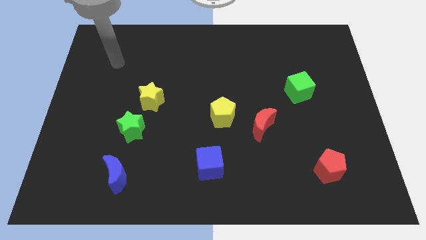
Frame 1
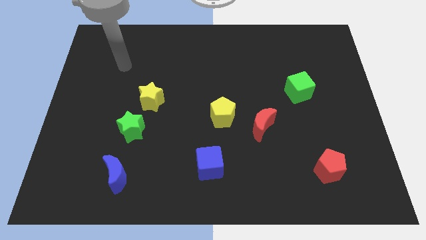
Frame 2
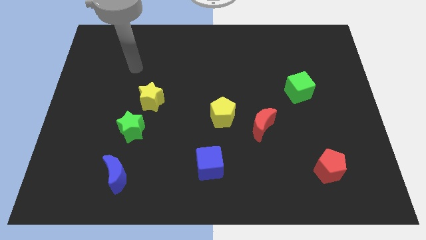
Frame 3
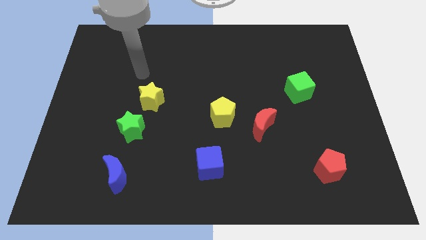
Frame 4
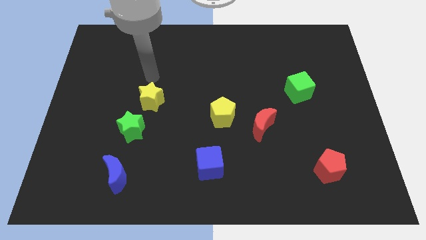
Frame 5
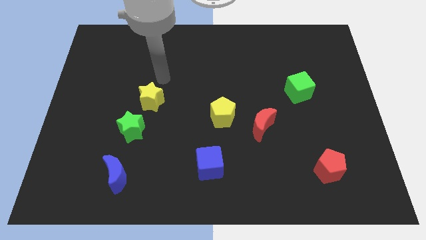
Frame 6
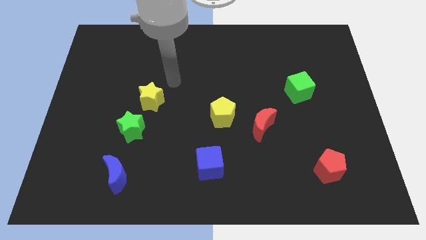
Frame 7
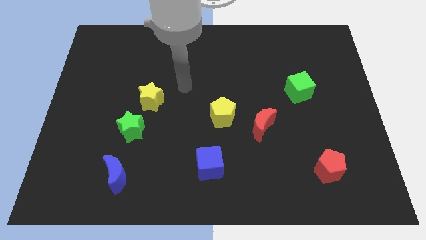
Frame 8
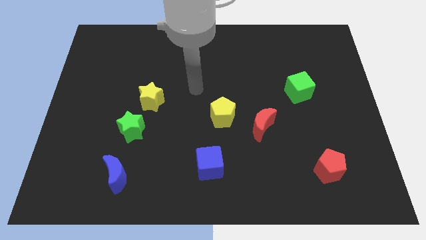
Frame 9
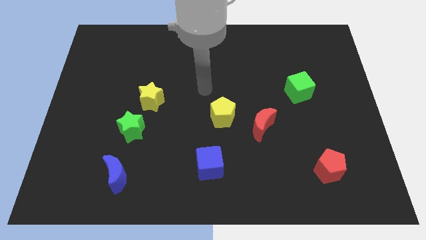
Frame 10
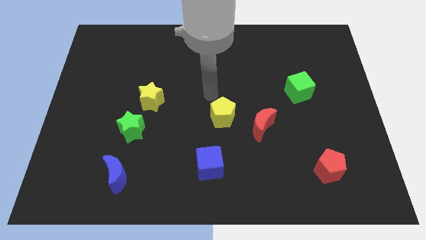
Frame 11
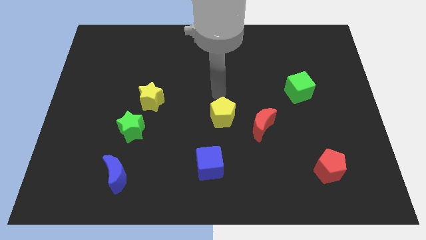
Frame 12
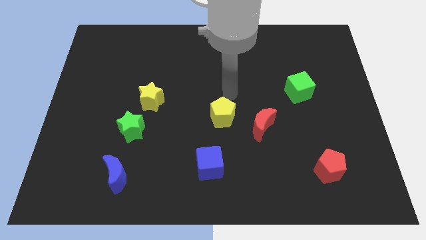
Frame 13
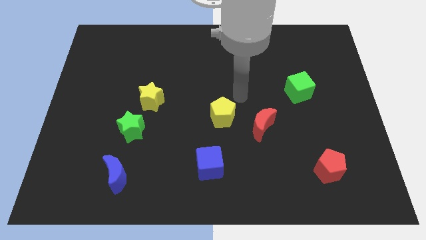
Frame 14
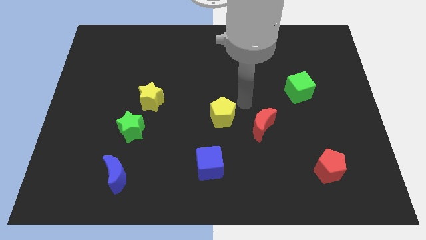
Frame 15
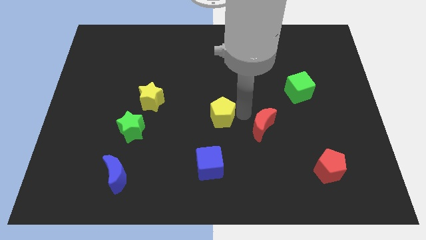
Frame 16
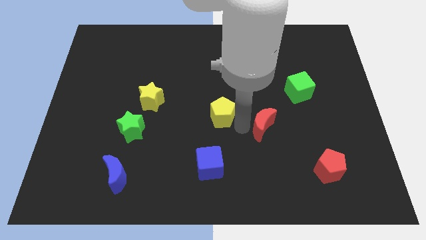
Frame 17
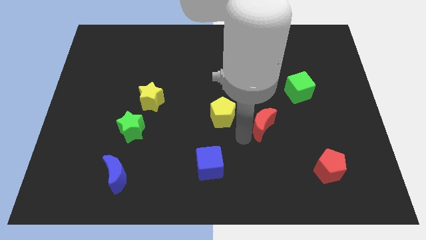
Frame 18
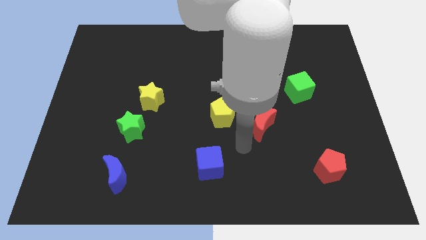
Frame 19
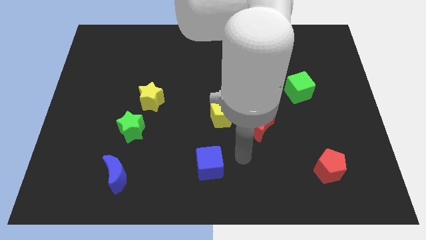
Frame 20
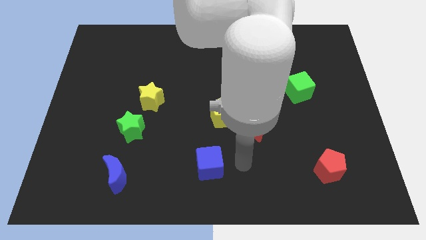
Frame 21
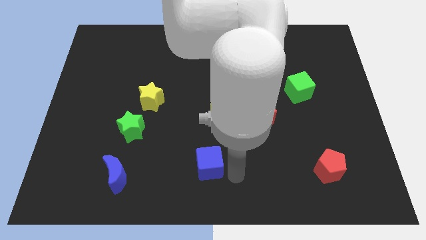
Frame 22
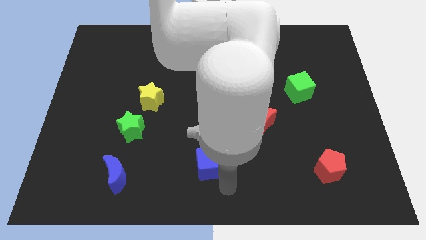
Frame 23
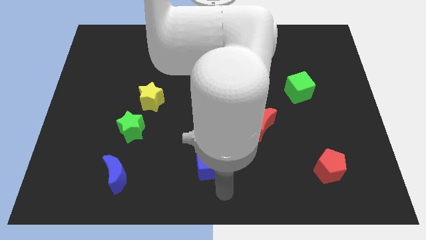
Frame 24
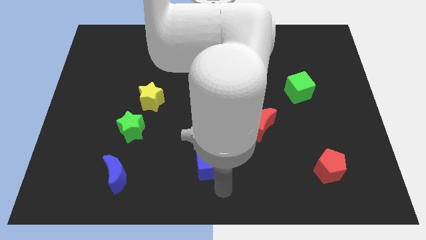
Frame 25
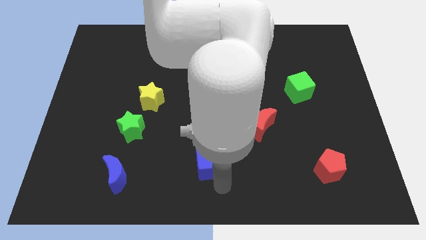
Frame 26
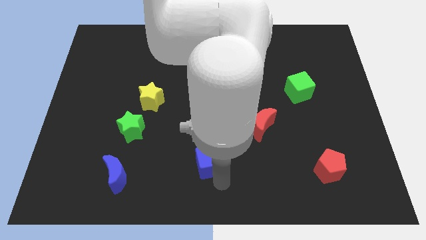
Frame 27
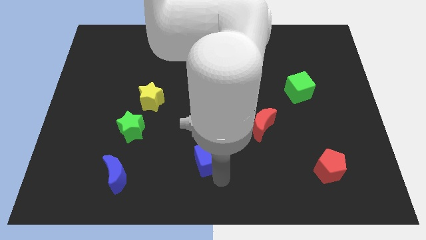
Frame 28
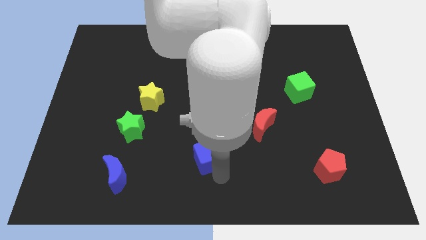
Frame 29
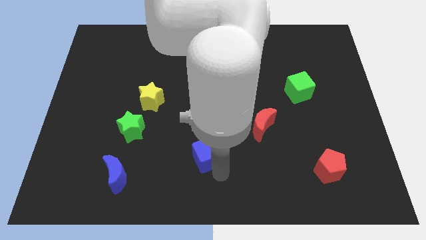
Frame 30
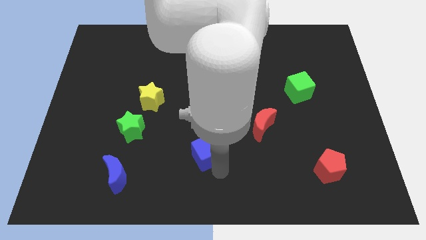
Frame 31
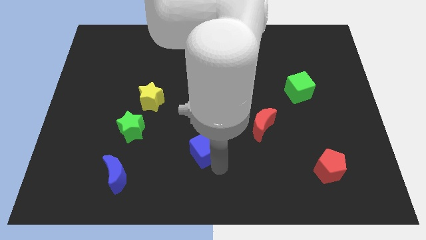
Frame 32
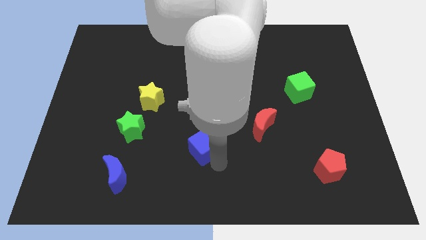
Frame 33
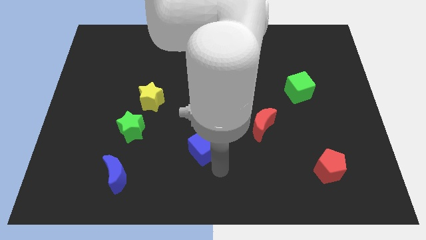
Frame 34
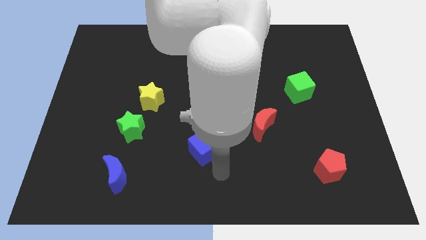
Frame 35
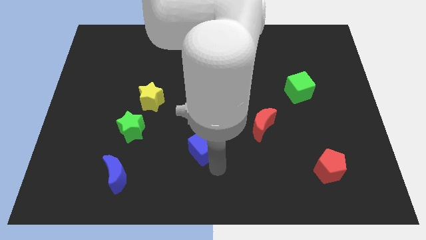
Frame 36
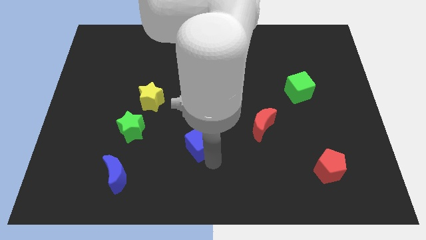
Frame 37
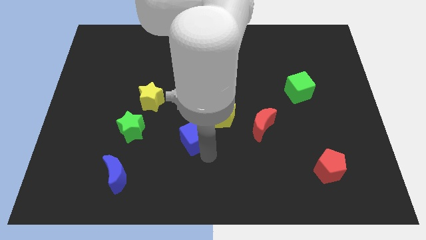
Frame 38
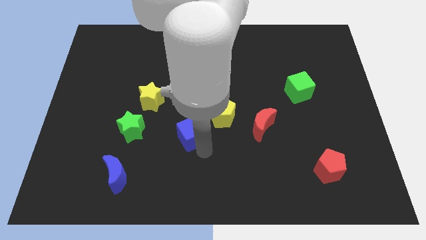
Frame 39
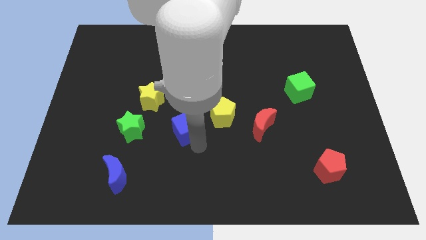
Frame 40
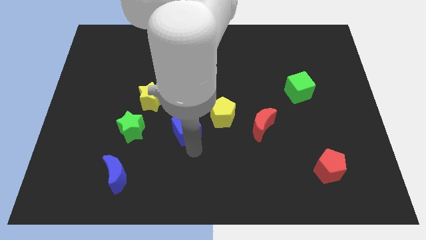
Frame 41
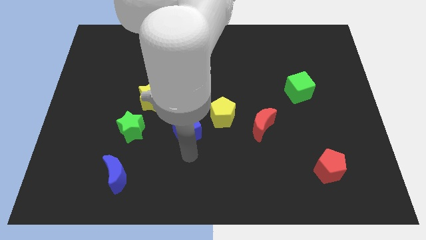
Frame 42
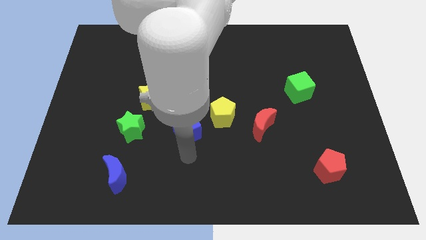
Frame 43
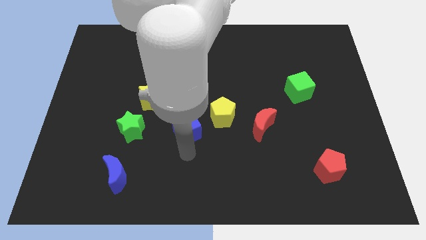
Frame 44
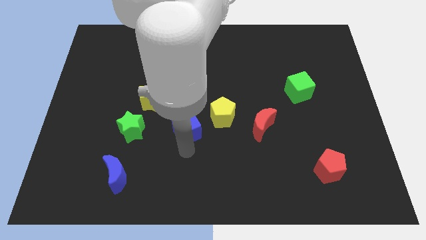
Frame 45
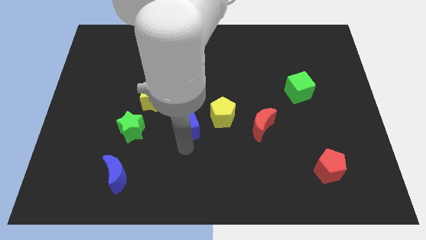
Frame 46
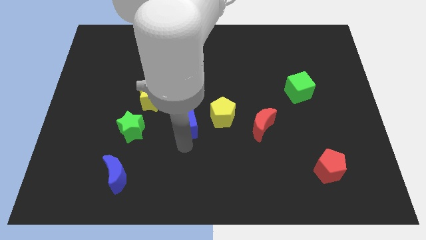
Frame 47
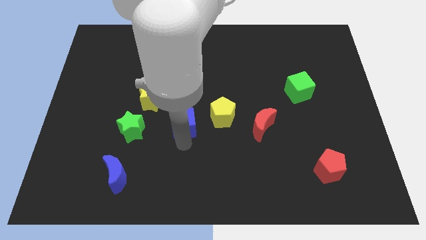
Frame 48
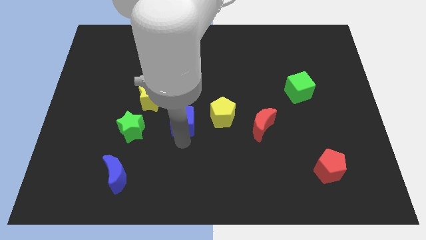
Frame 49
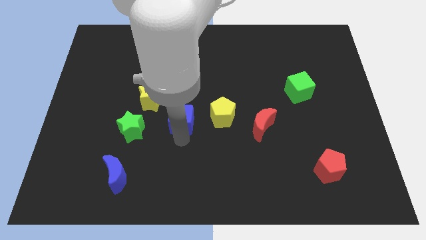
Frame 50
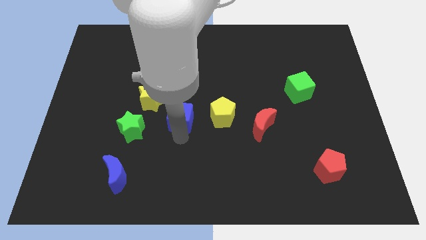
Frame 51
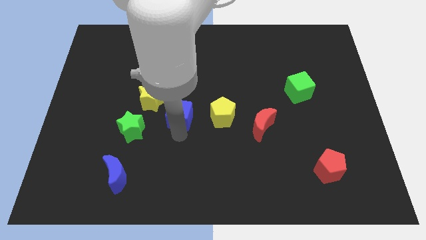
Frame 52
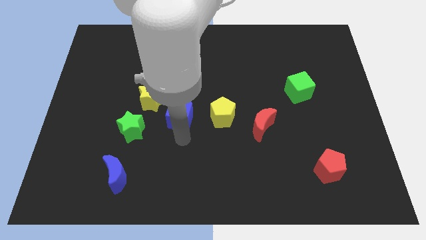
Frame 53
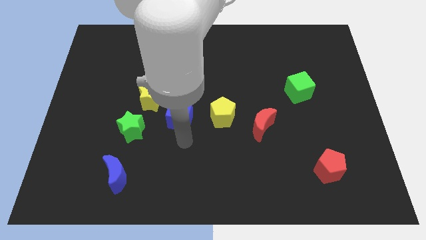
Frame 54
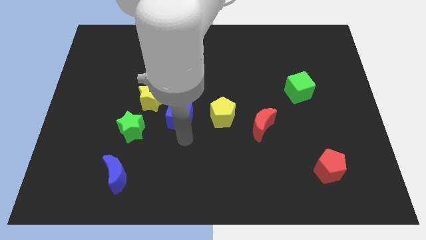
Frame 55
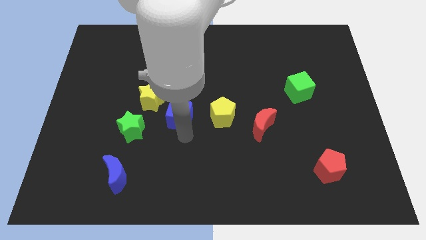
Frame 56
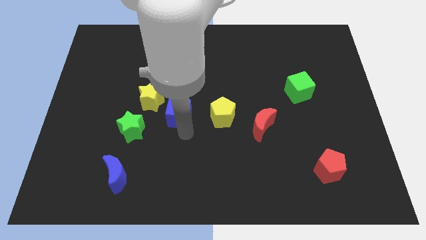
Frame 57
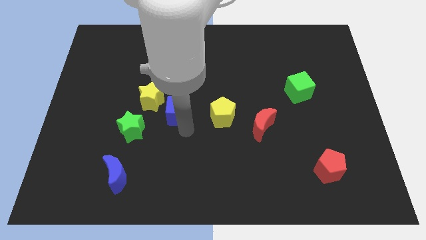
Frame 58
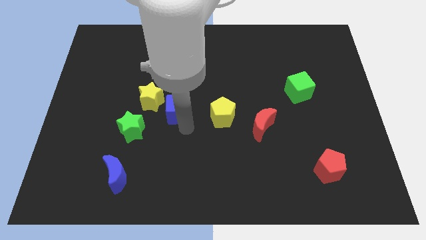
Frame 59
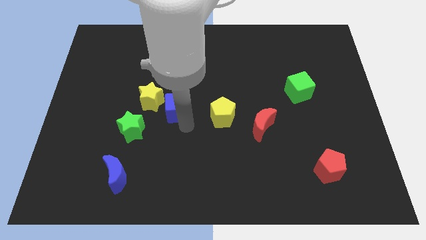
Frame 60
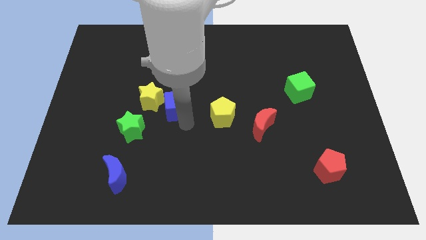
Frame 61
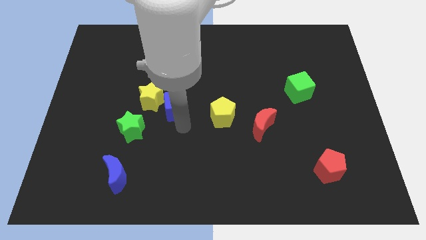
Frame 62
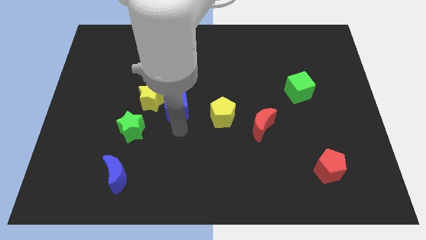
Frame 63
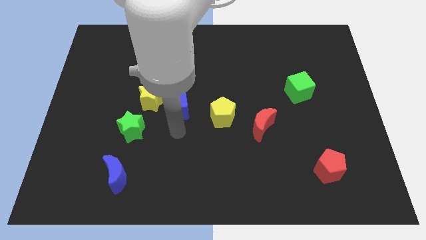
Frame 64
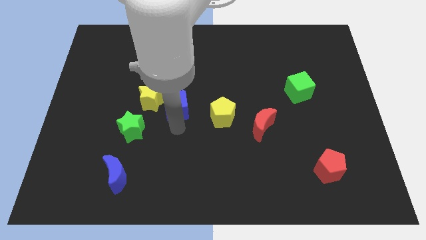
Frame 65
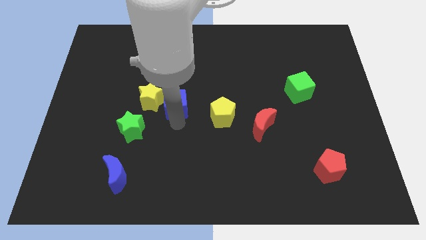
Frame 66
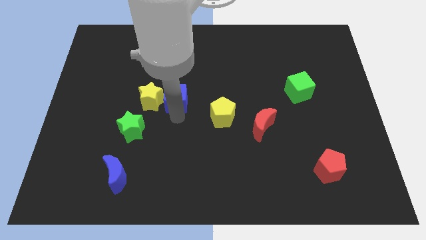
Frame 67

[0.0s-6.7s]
move the blue cube to the top right side of the yellow star

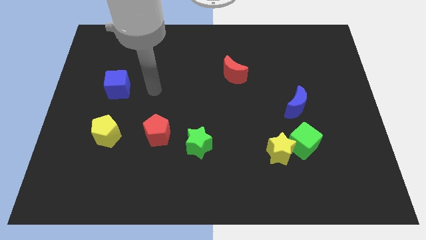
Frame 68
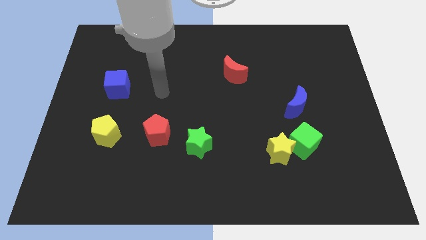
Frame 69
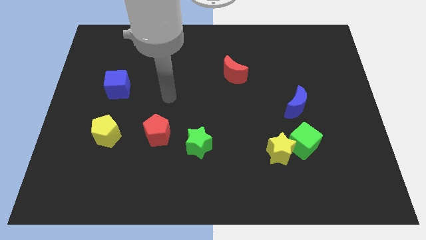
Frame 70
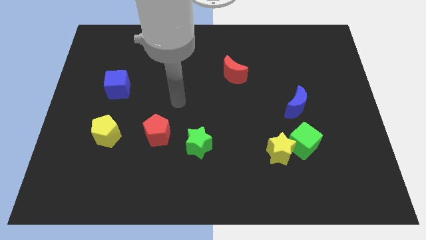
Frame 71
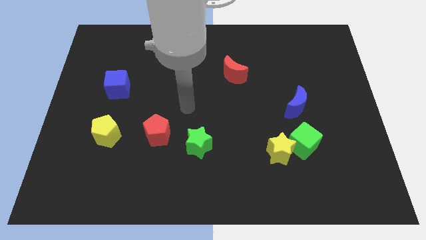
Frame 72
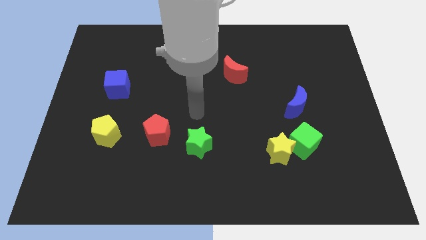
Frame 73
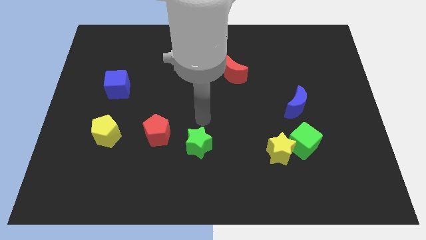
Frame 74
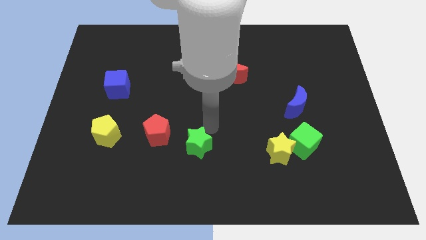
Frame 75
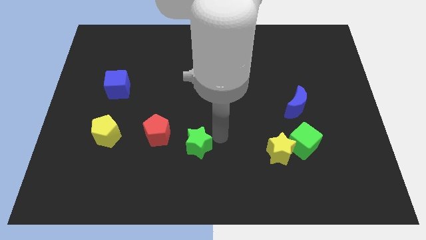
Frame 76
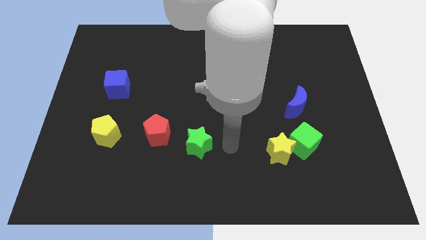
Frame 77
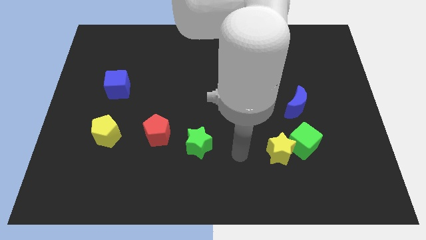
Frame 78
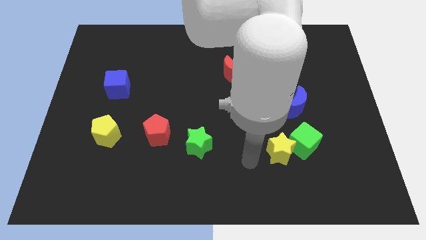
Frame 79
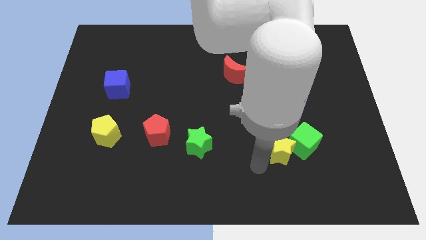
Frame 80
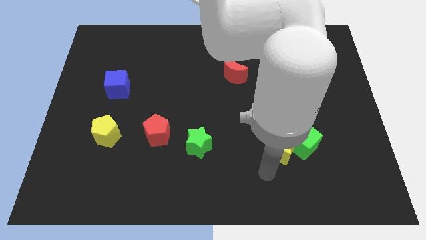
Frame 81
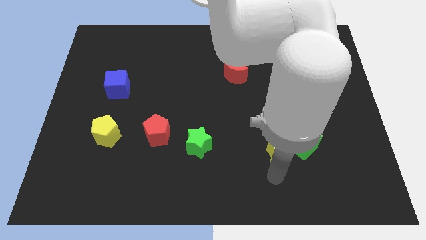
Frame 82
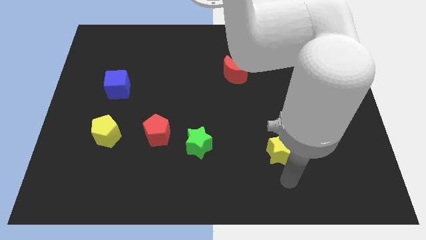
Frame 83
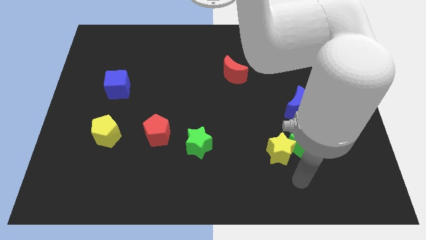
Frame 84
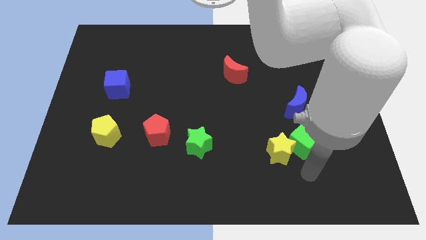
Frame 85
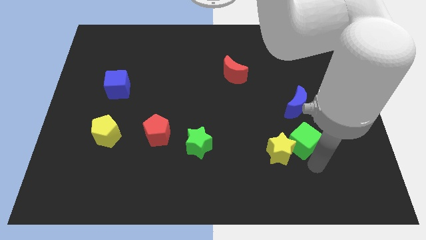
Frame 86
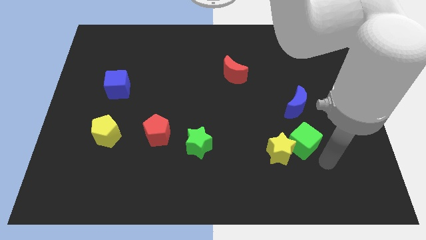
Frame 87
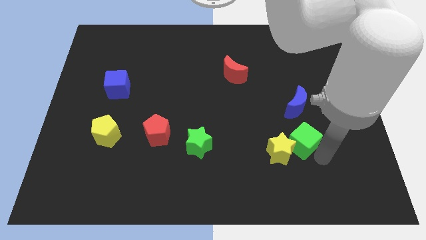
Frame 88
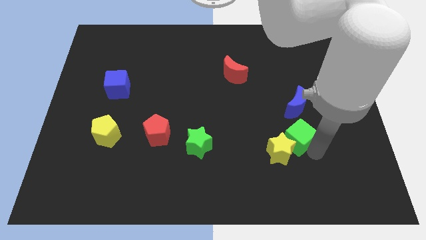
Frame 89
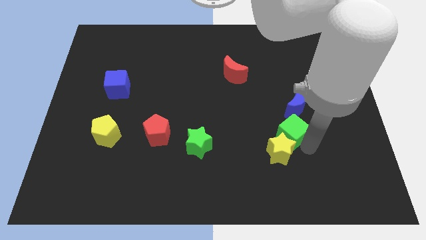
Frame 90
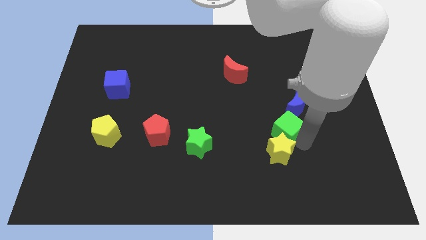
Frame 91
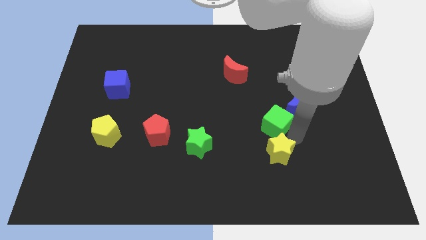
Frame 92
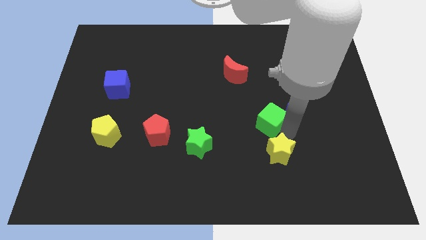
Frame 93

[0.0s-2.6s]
move the green cube just left of the blue moon
